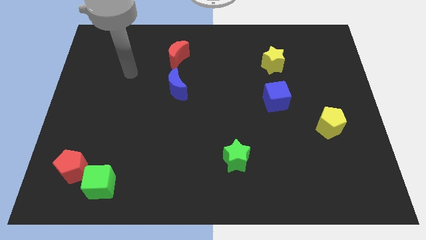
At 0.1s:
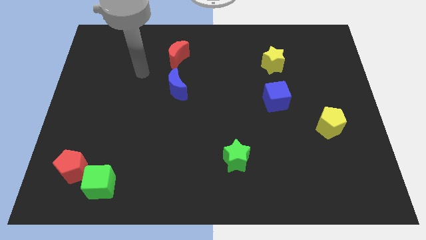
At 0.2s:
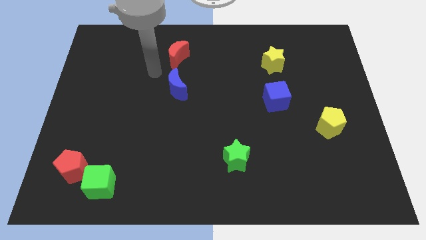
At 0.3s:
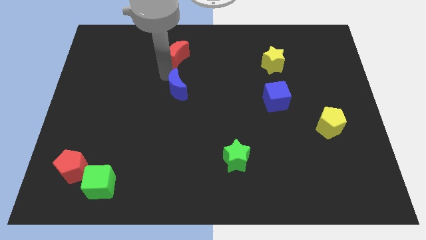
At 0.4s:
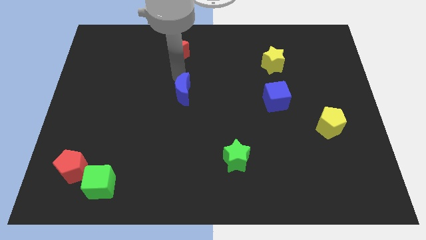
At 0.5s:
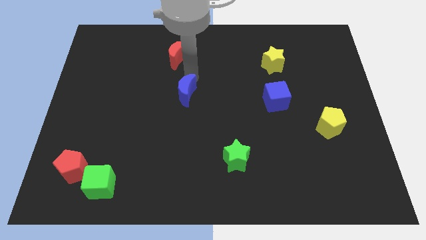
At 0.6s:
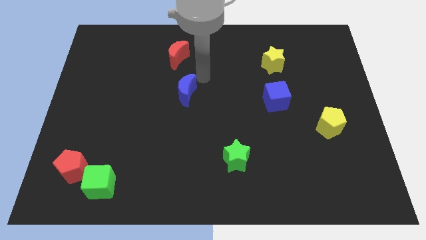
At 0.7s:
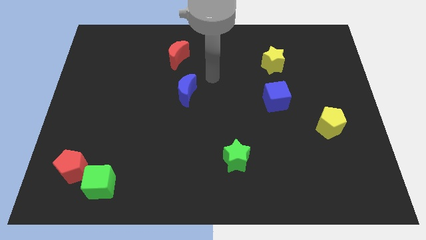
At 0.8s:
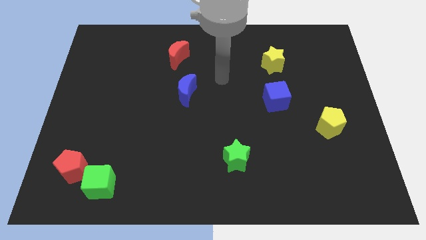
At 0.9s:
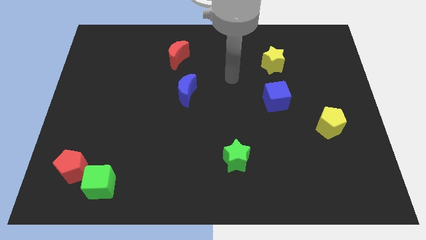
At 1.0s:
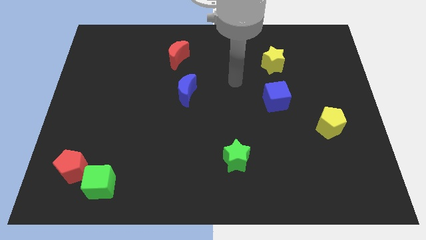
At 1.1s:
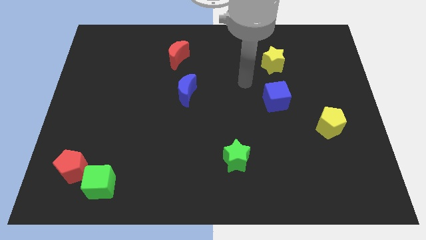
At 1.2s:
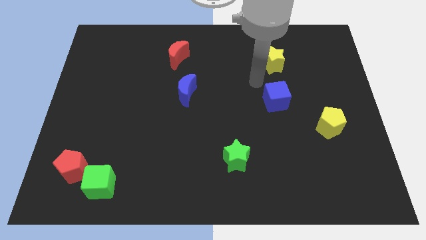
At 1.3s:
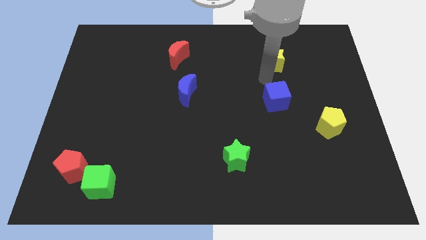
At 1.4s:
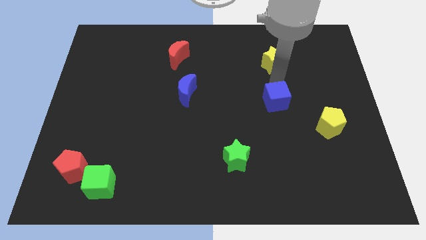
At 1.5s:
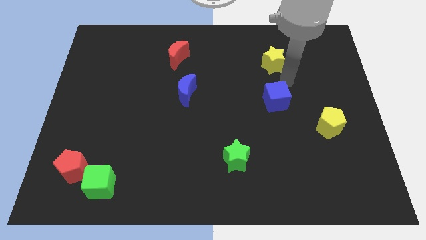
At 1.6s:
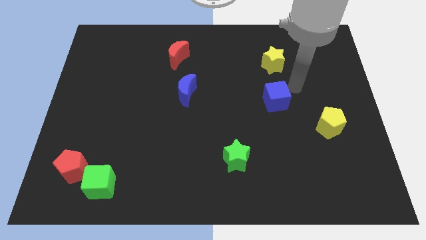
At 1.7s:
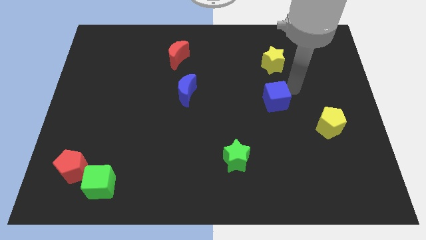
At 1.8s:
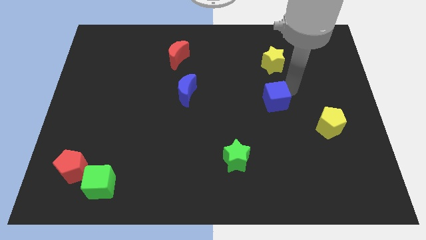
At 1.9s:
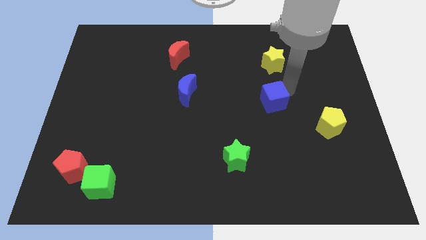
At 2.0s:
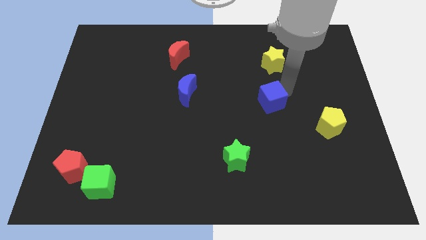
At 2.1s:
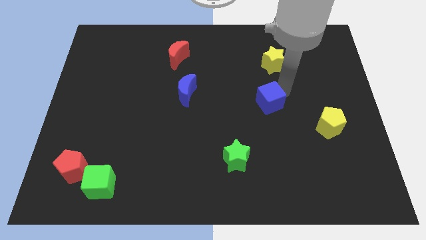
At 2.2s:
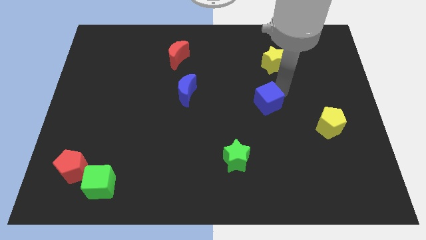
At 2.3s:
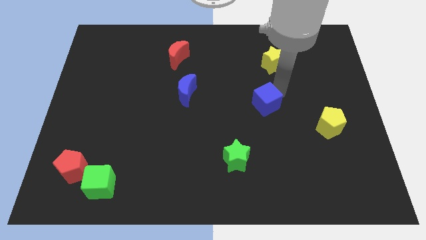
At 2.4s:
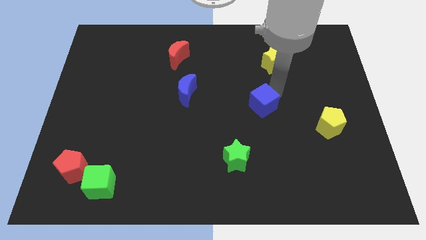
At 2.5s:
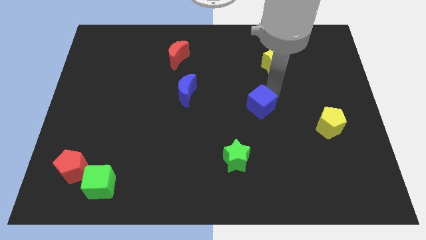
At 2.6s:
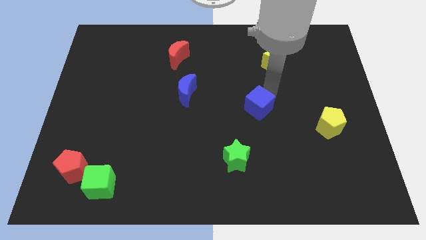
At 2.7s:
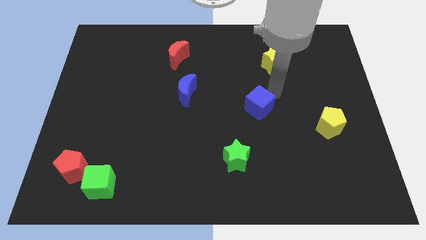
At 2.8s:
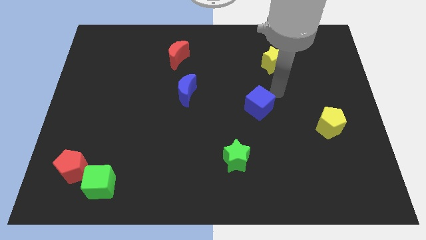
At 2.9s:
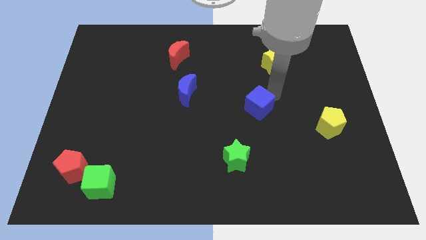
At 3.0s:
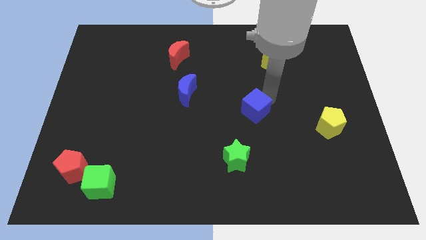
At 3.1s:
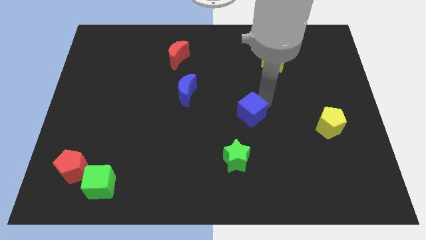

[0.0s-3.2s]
slightly push the blue cube downwards and then left

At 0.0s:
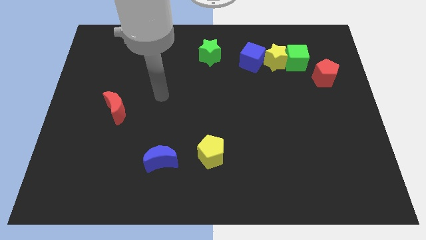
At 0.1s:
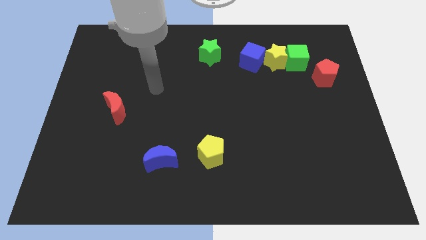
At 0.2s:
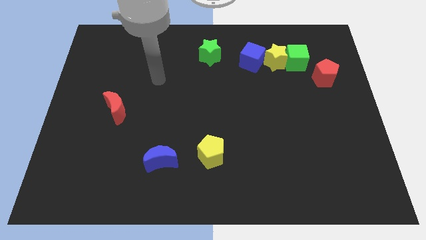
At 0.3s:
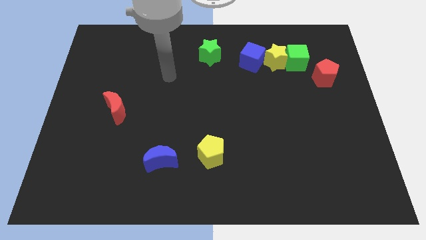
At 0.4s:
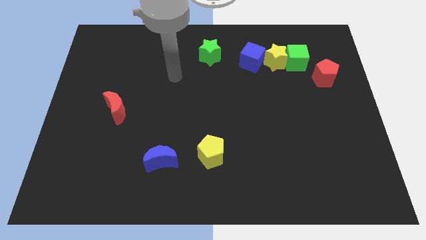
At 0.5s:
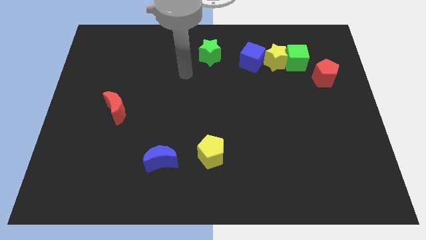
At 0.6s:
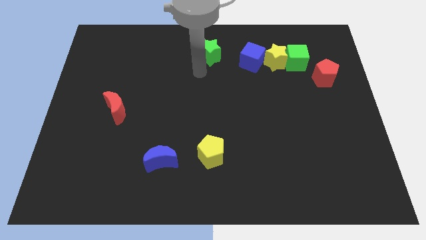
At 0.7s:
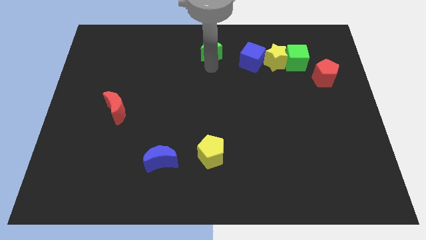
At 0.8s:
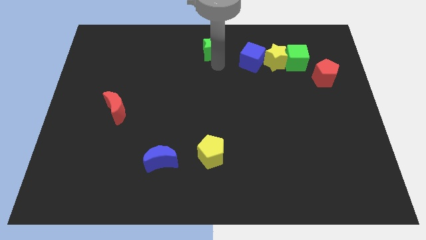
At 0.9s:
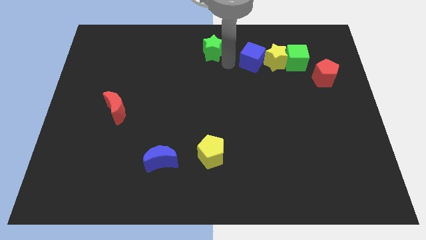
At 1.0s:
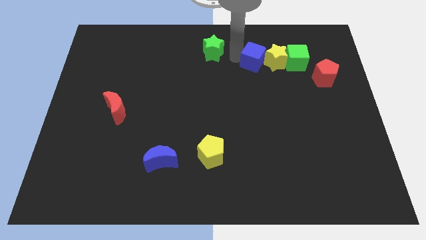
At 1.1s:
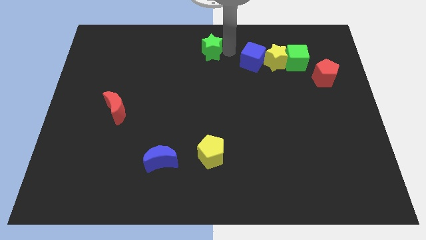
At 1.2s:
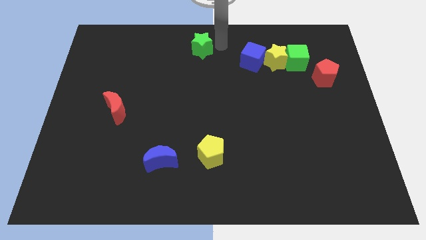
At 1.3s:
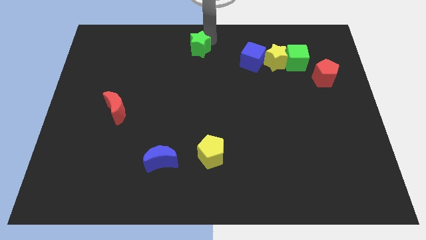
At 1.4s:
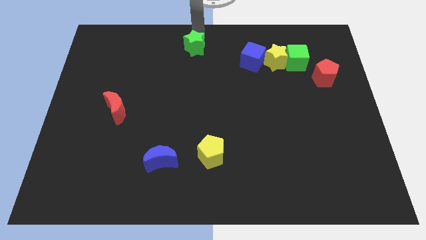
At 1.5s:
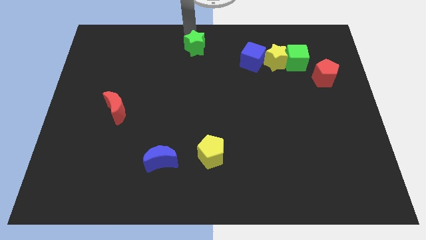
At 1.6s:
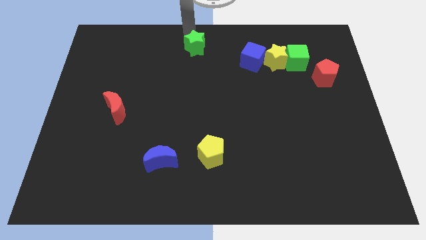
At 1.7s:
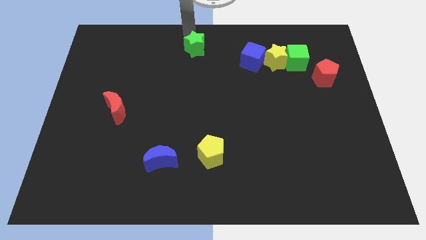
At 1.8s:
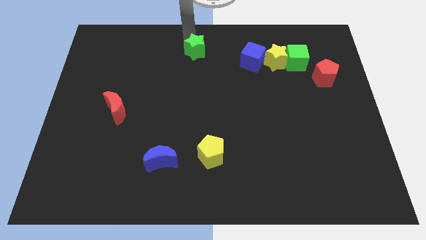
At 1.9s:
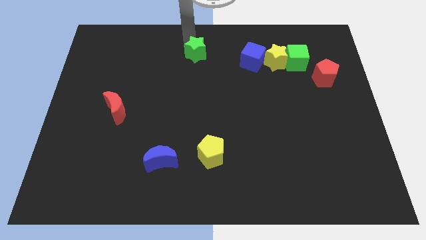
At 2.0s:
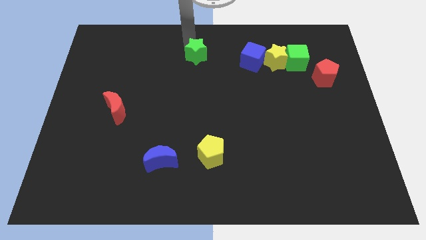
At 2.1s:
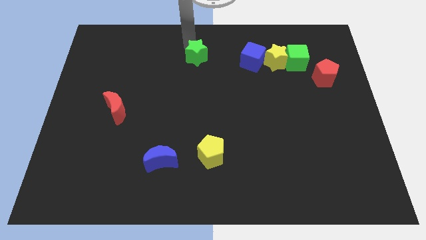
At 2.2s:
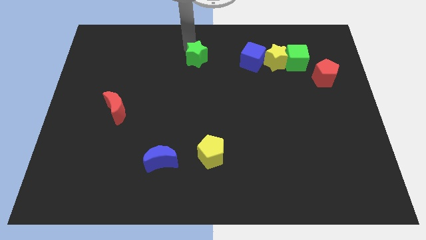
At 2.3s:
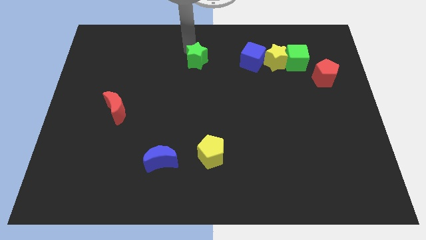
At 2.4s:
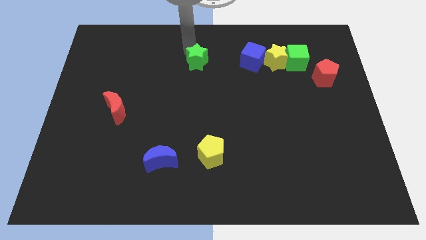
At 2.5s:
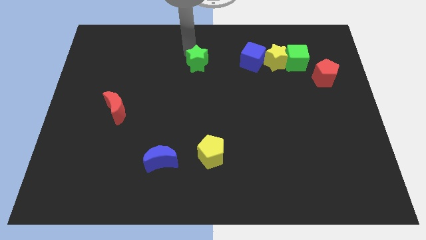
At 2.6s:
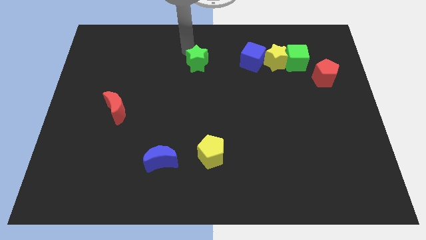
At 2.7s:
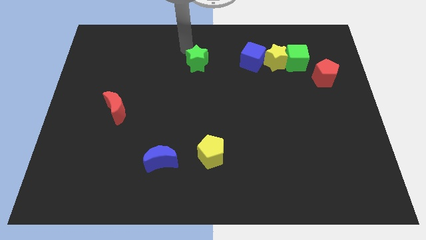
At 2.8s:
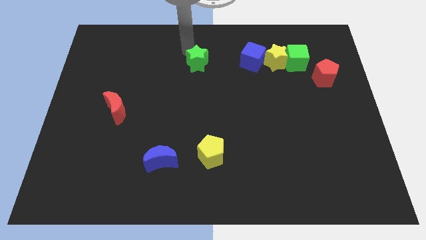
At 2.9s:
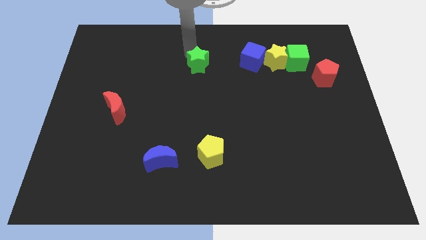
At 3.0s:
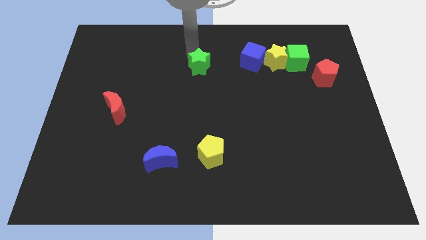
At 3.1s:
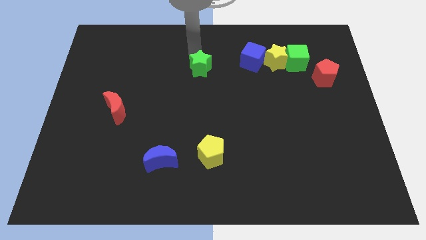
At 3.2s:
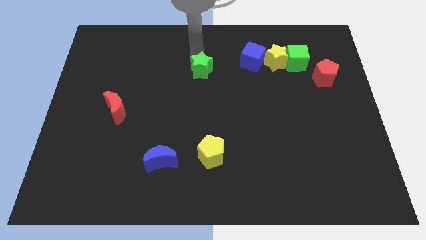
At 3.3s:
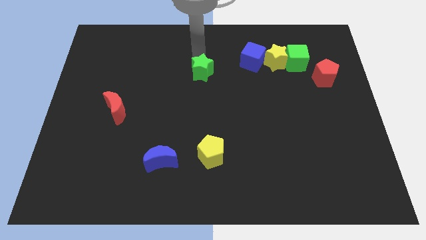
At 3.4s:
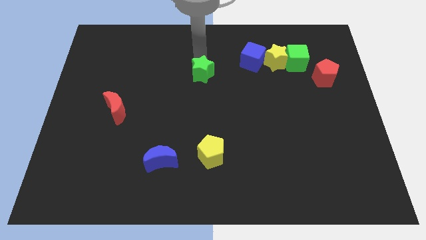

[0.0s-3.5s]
slide the green star downwards slightly

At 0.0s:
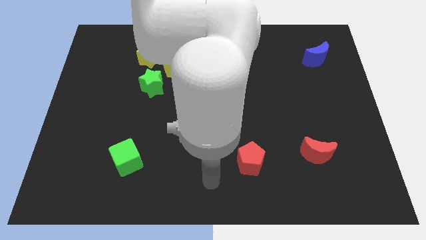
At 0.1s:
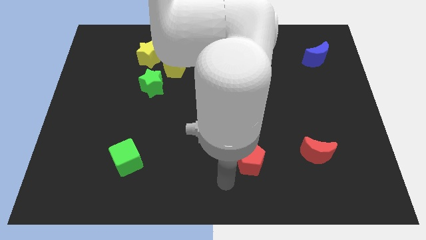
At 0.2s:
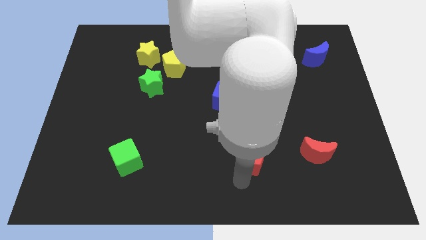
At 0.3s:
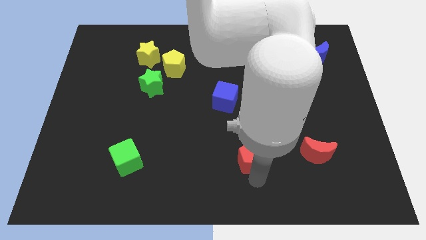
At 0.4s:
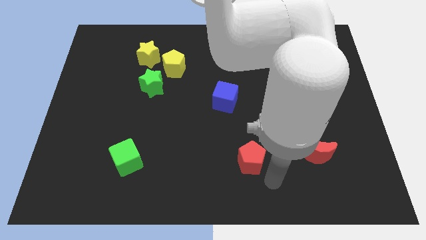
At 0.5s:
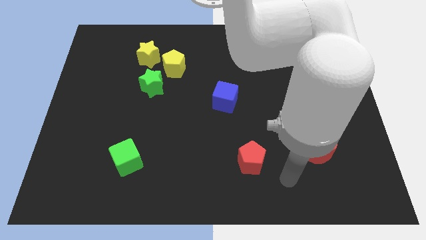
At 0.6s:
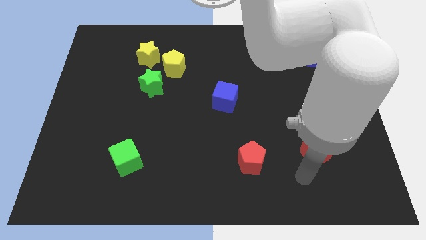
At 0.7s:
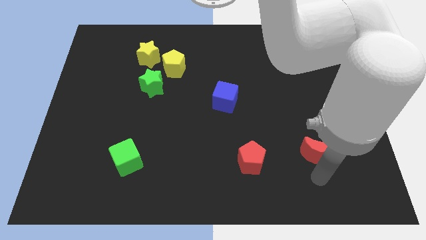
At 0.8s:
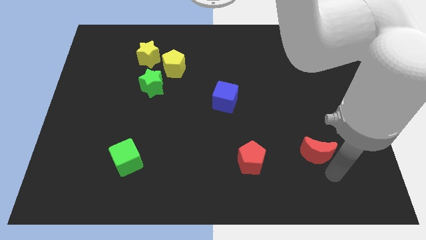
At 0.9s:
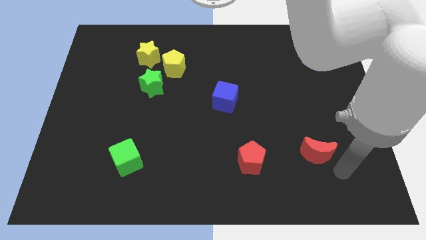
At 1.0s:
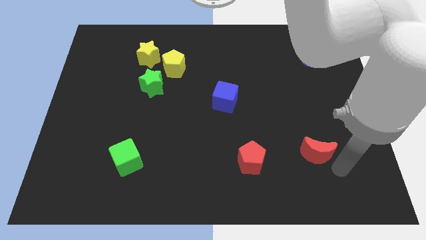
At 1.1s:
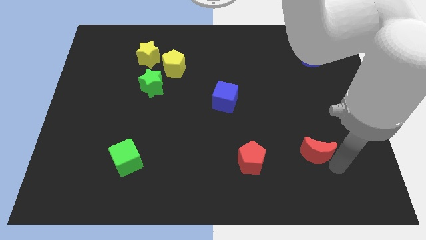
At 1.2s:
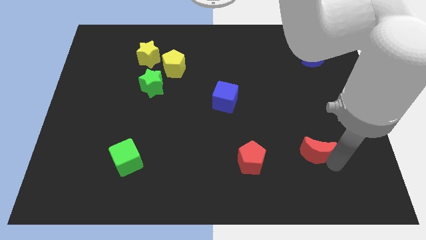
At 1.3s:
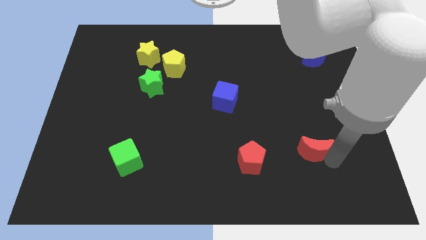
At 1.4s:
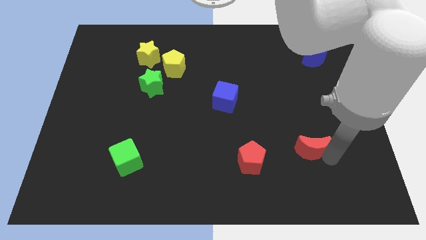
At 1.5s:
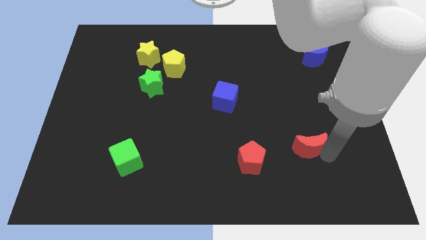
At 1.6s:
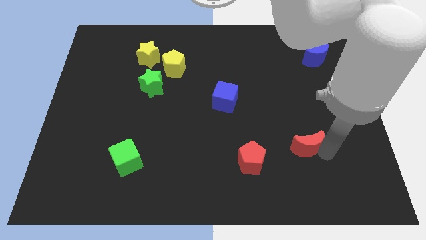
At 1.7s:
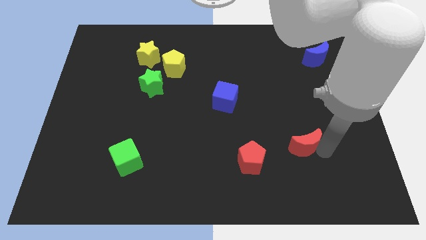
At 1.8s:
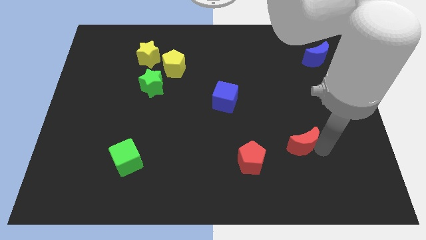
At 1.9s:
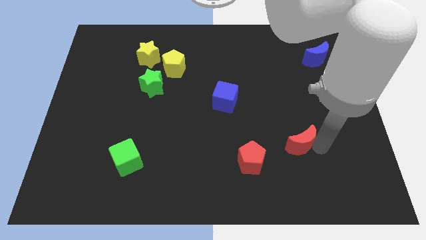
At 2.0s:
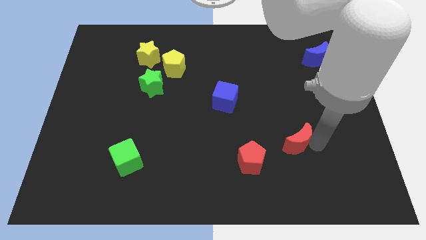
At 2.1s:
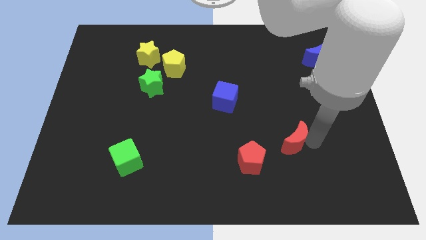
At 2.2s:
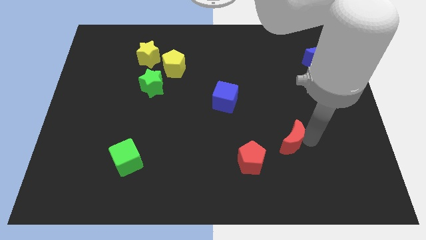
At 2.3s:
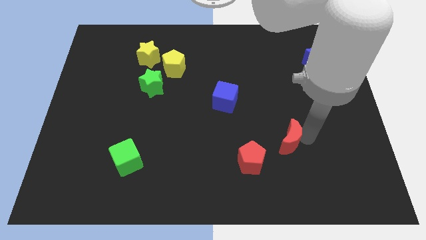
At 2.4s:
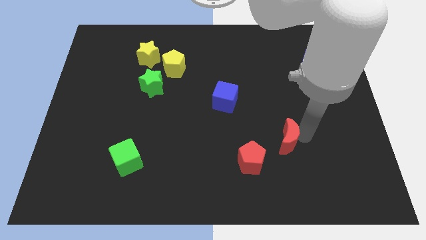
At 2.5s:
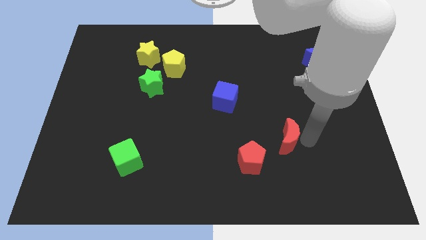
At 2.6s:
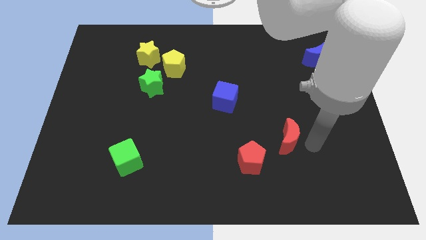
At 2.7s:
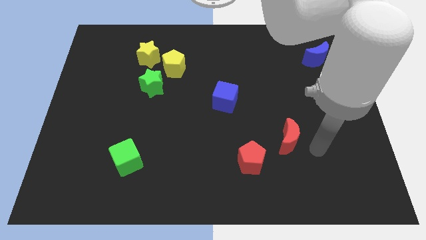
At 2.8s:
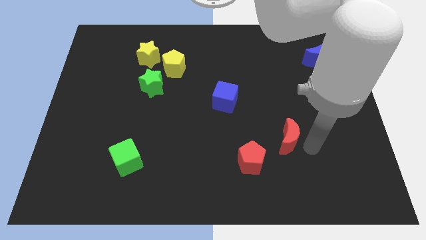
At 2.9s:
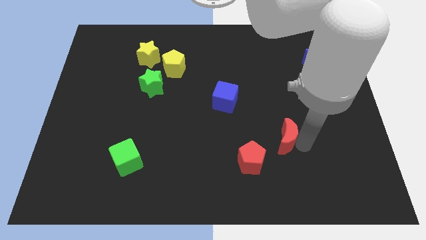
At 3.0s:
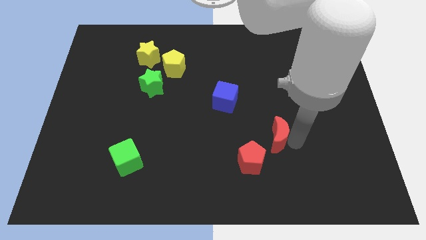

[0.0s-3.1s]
push the red moon to the left a little
